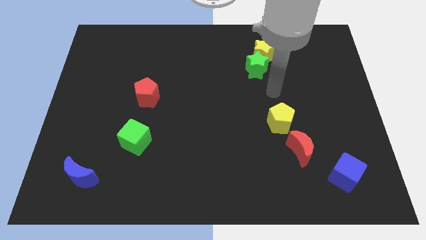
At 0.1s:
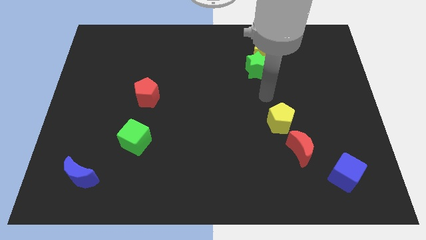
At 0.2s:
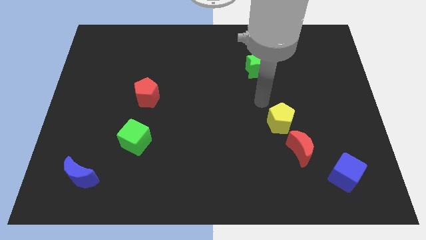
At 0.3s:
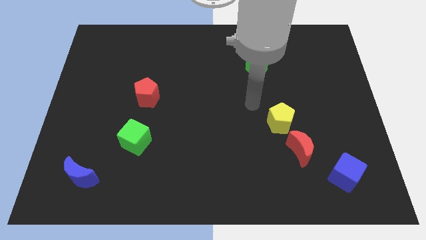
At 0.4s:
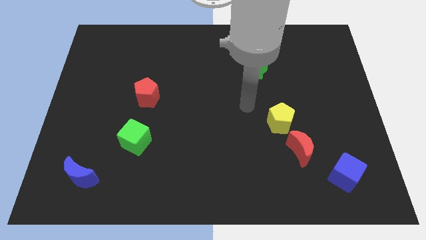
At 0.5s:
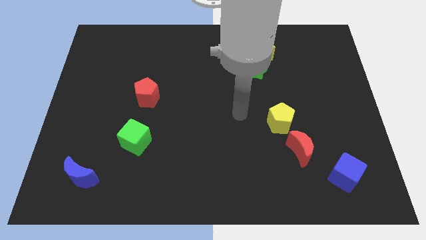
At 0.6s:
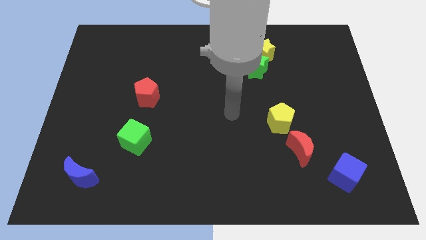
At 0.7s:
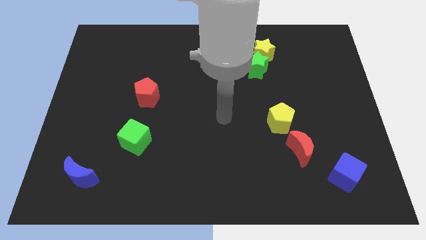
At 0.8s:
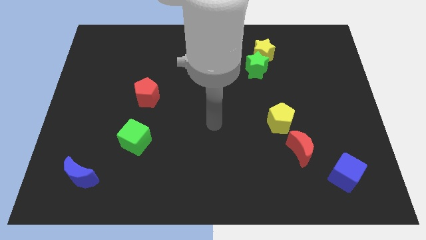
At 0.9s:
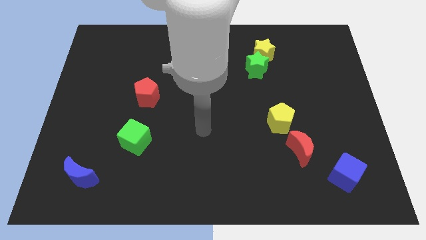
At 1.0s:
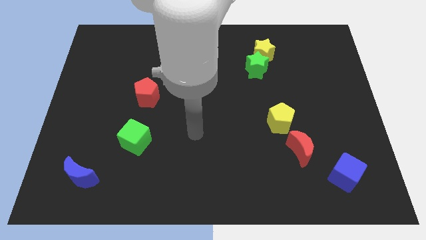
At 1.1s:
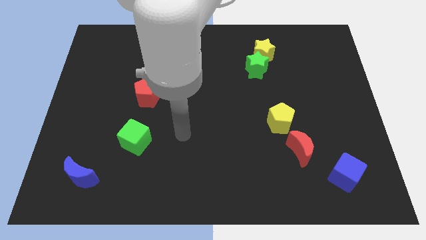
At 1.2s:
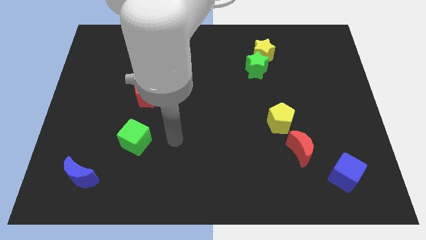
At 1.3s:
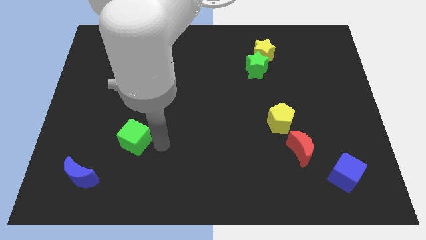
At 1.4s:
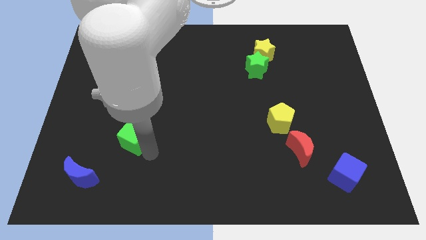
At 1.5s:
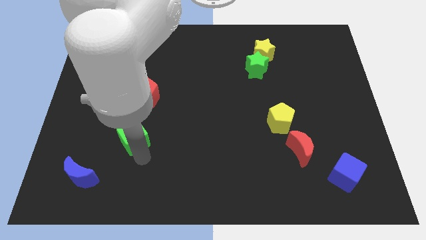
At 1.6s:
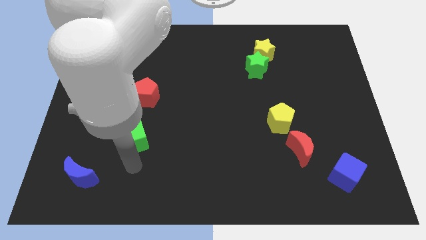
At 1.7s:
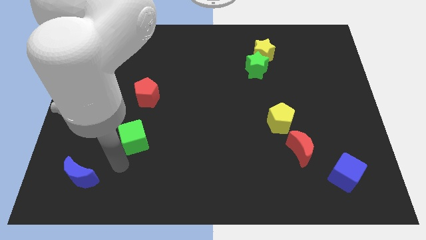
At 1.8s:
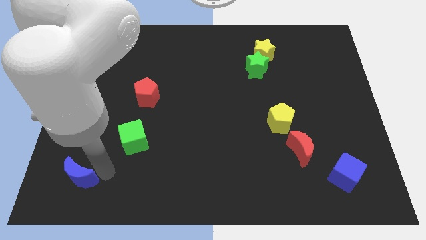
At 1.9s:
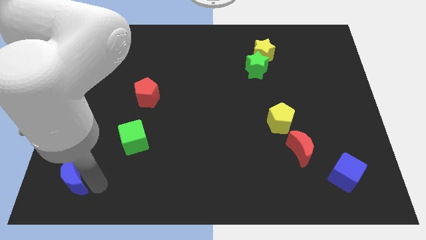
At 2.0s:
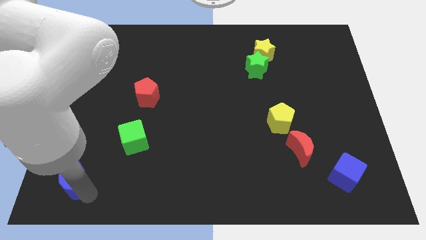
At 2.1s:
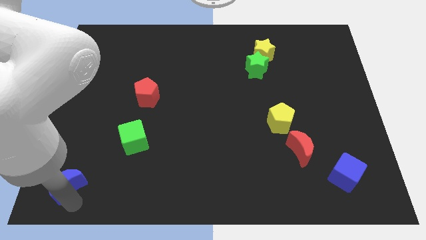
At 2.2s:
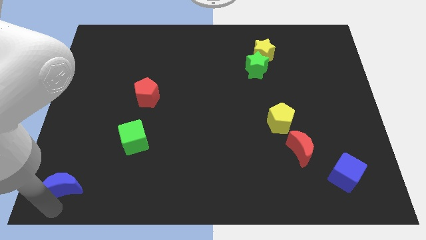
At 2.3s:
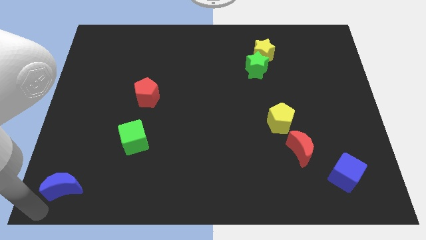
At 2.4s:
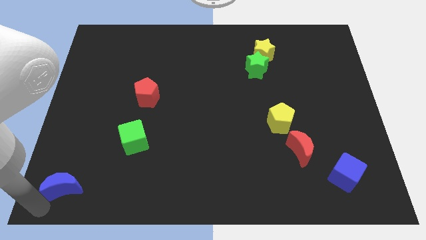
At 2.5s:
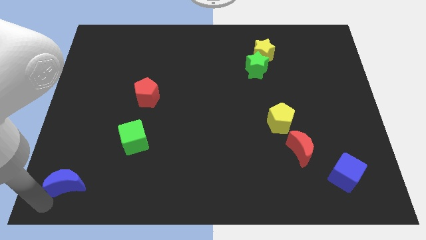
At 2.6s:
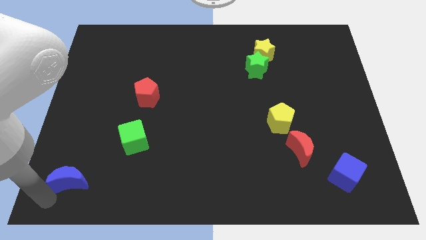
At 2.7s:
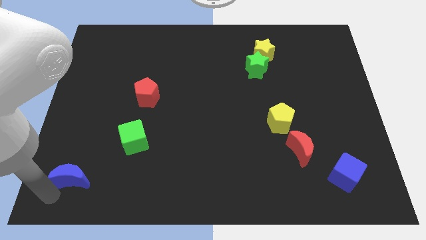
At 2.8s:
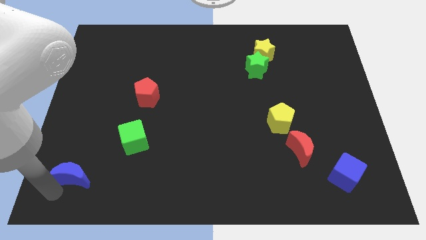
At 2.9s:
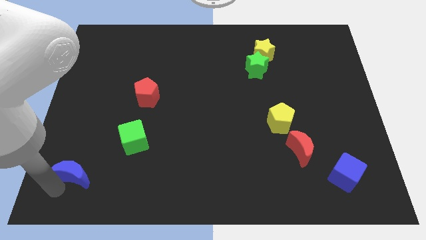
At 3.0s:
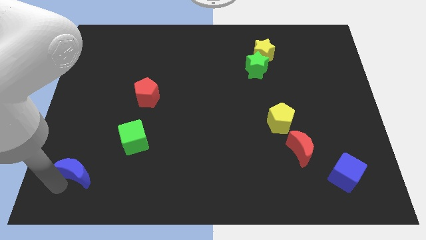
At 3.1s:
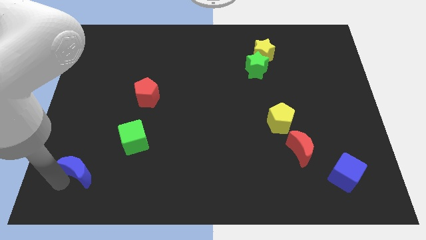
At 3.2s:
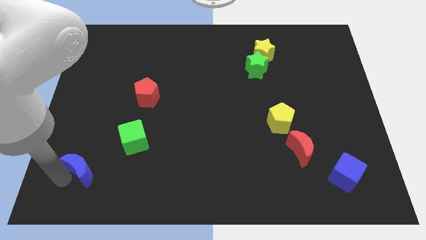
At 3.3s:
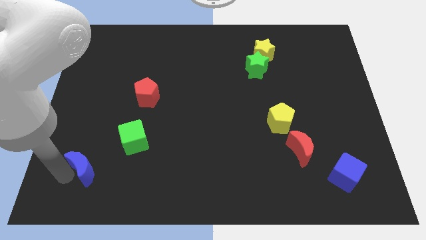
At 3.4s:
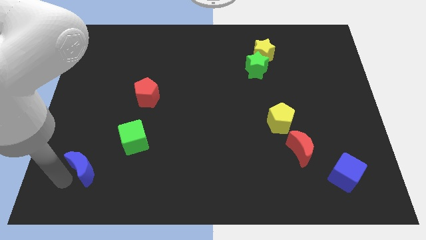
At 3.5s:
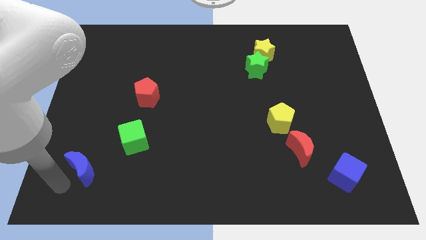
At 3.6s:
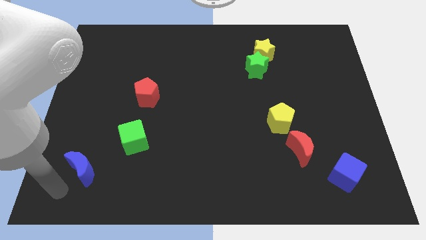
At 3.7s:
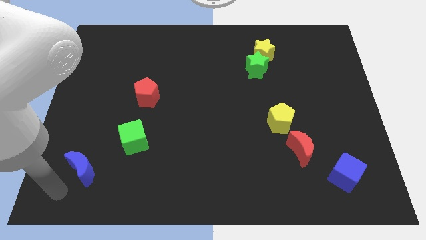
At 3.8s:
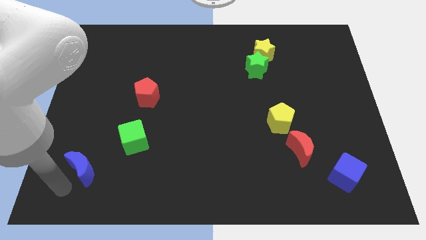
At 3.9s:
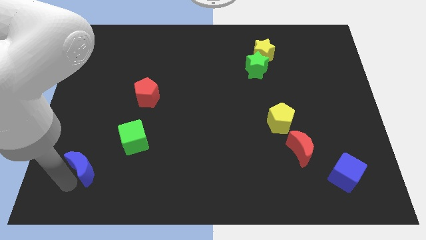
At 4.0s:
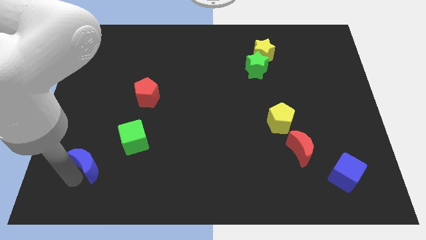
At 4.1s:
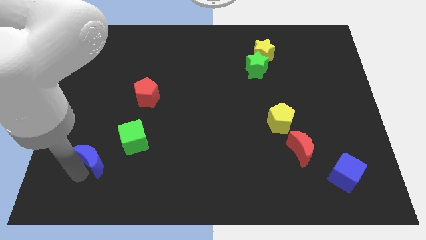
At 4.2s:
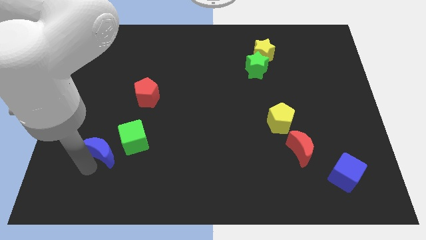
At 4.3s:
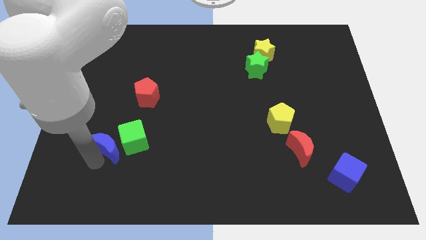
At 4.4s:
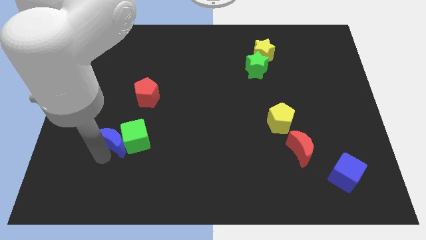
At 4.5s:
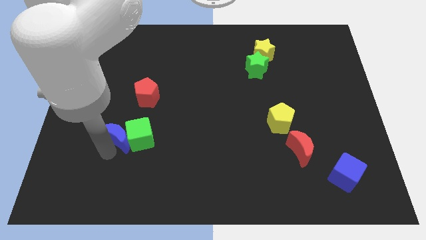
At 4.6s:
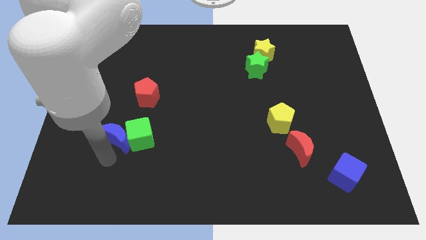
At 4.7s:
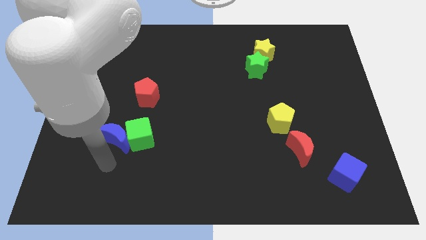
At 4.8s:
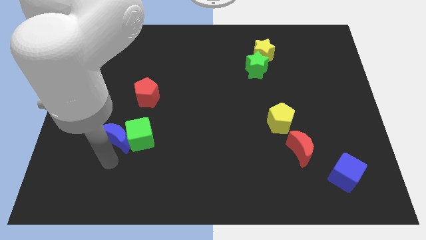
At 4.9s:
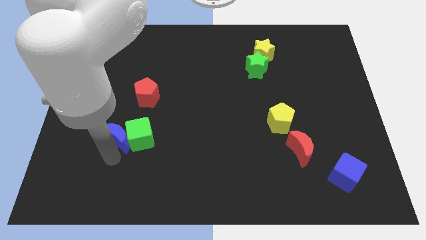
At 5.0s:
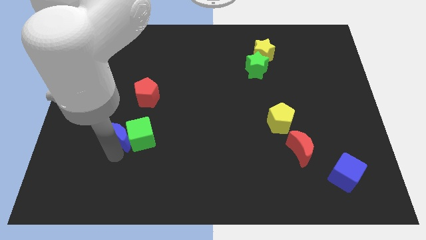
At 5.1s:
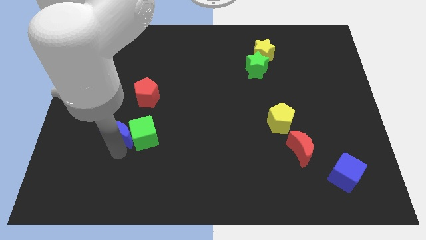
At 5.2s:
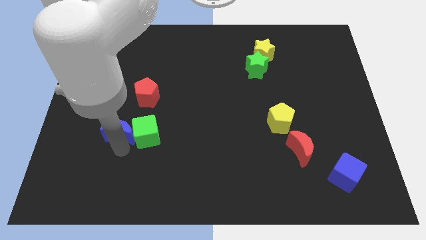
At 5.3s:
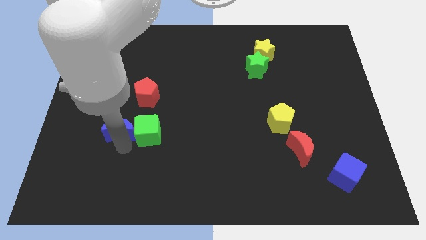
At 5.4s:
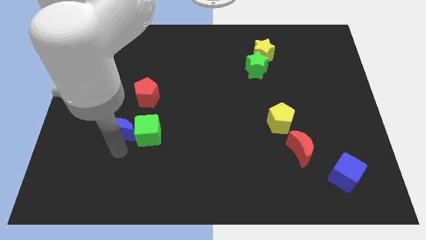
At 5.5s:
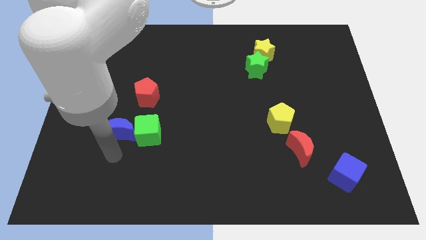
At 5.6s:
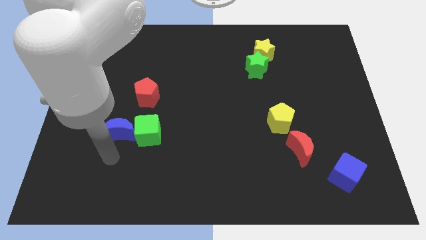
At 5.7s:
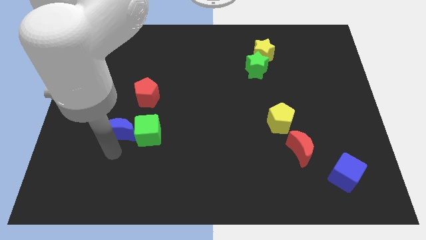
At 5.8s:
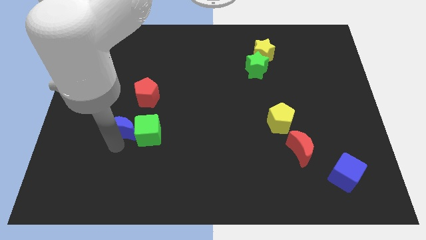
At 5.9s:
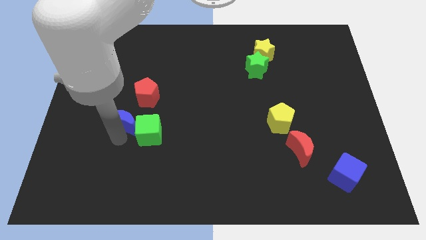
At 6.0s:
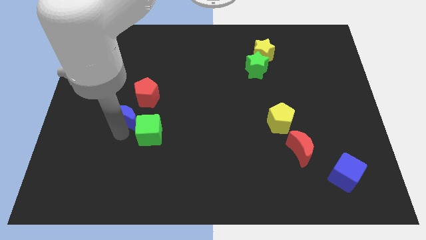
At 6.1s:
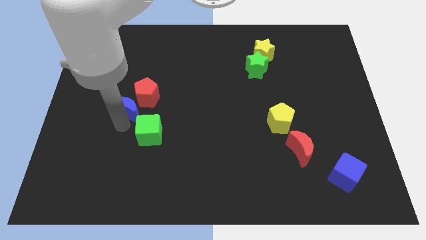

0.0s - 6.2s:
push the blue moon close to the red pentagon

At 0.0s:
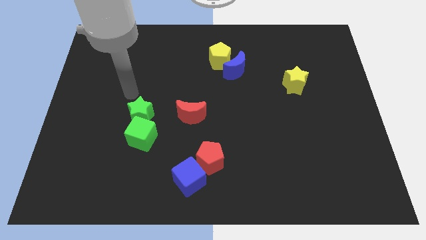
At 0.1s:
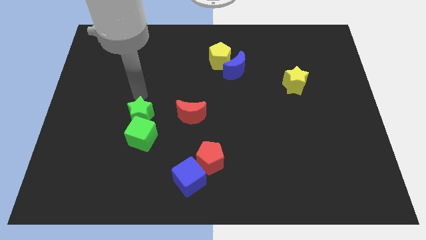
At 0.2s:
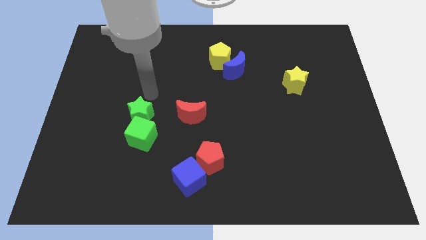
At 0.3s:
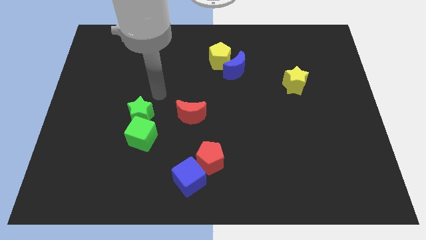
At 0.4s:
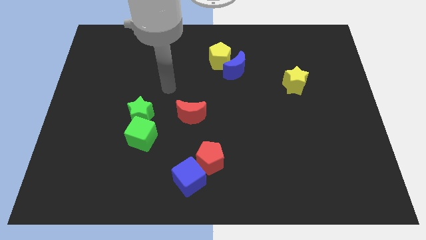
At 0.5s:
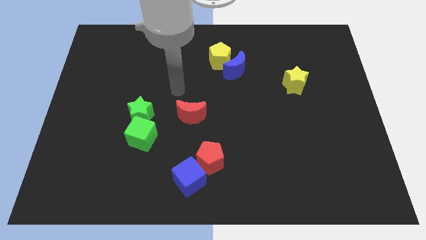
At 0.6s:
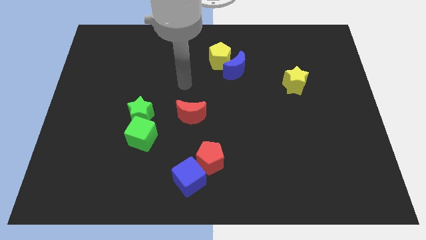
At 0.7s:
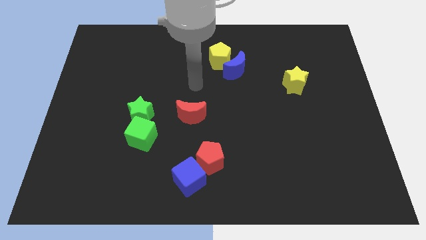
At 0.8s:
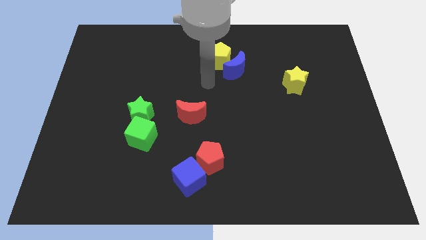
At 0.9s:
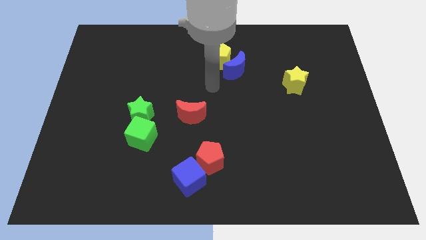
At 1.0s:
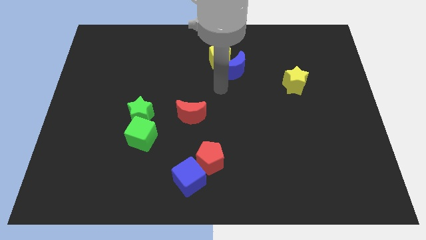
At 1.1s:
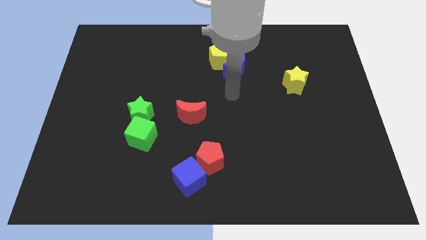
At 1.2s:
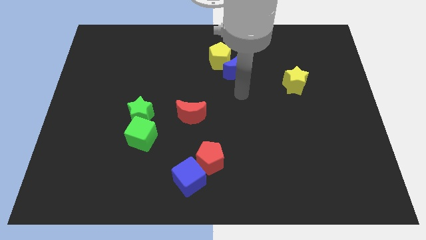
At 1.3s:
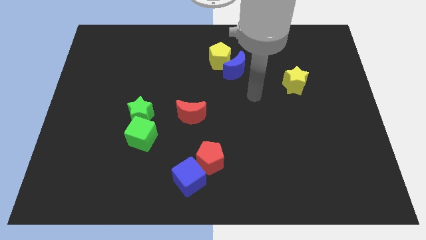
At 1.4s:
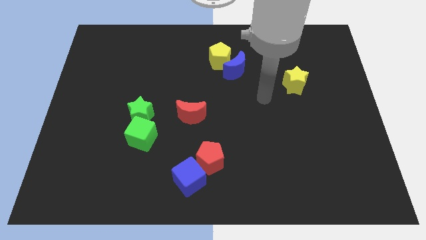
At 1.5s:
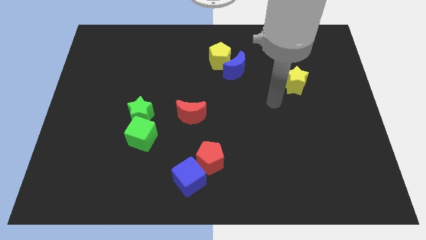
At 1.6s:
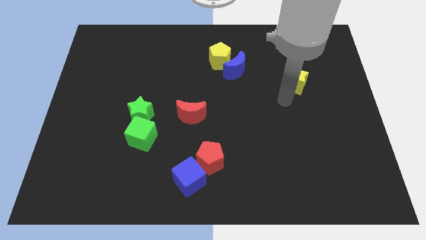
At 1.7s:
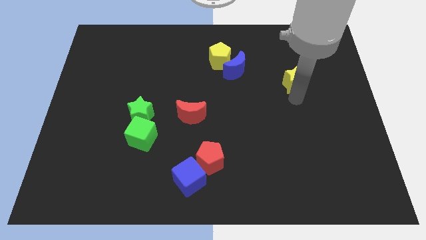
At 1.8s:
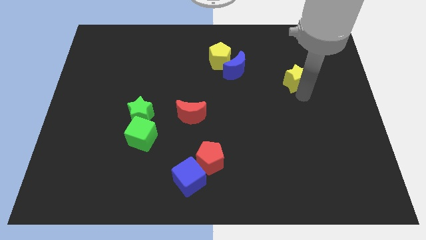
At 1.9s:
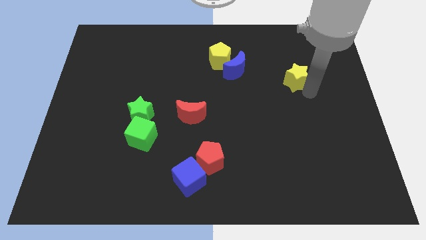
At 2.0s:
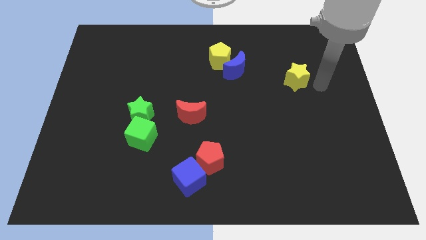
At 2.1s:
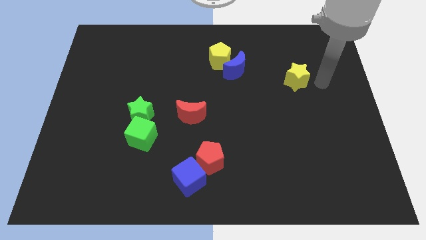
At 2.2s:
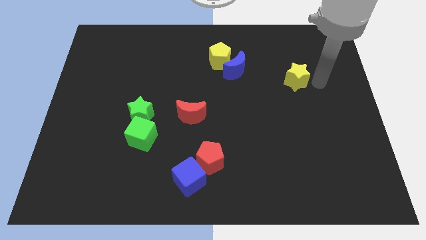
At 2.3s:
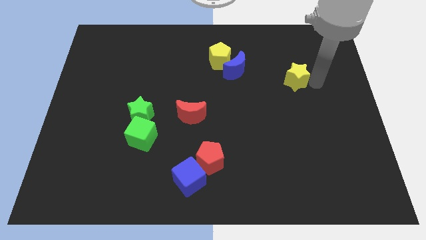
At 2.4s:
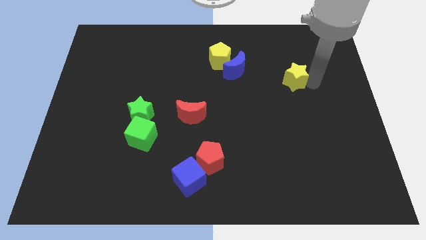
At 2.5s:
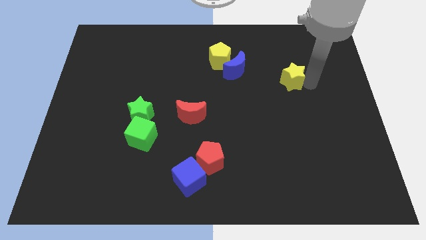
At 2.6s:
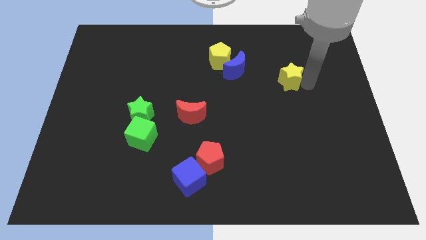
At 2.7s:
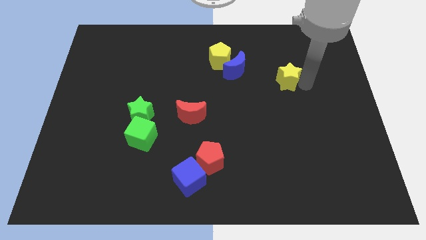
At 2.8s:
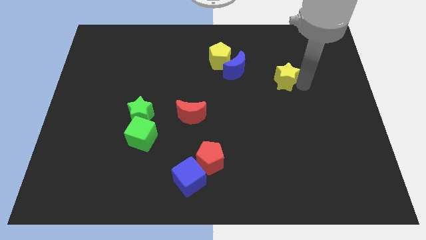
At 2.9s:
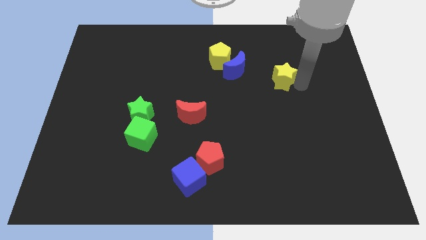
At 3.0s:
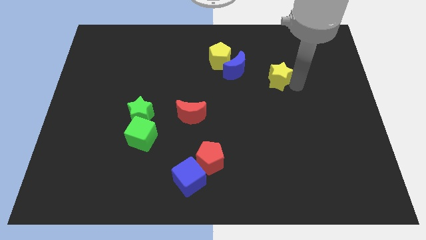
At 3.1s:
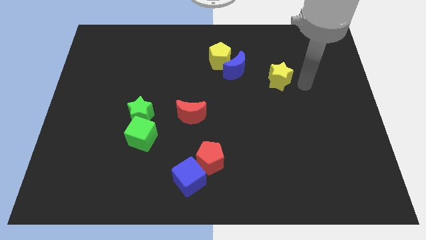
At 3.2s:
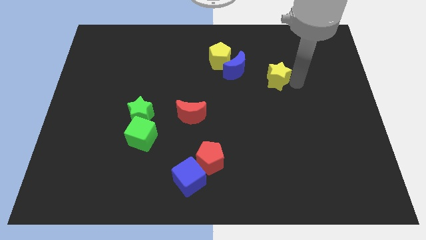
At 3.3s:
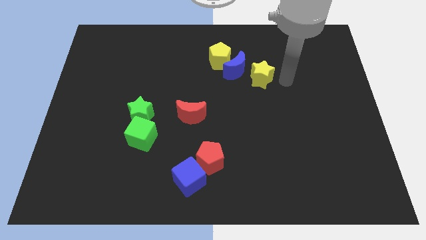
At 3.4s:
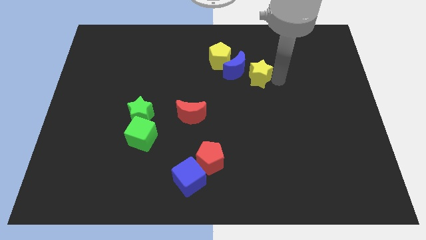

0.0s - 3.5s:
slide the yellow star towards the blue moon
